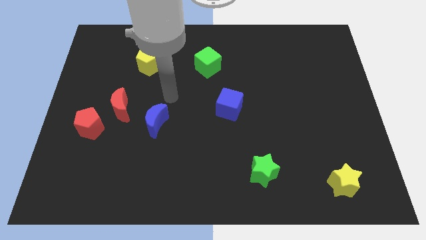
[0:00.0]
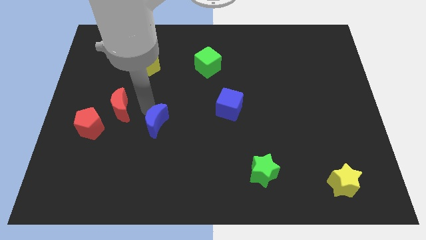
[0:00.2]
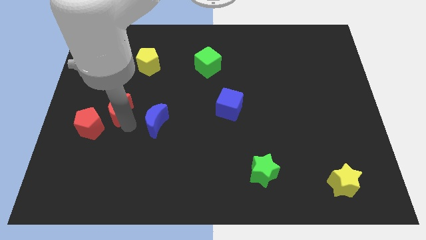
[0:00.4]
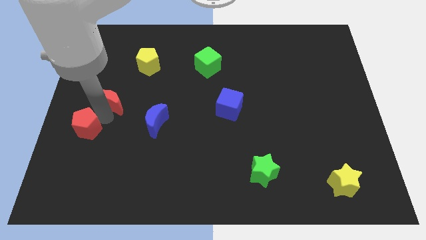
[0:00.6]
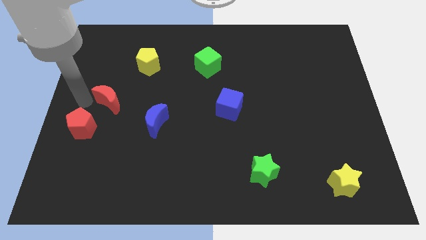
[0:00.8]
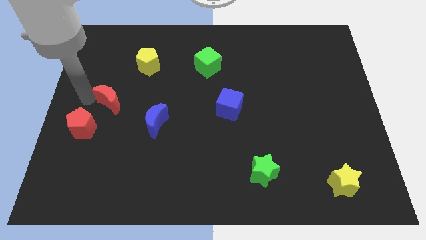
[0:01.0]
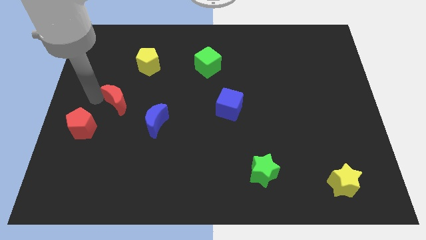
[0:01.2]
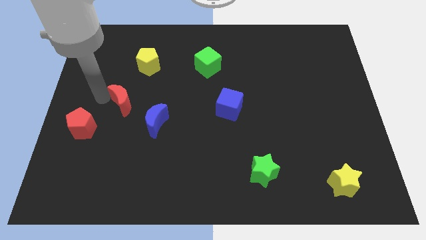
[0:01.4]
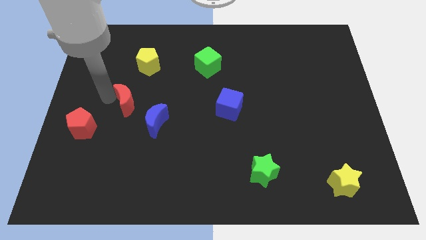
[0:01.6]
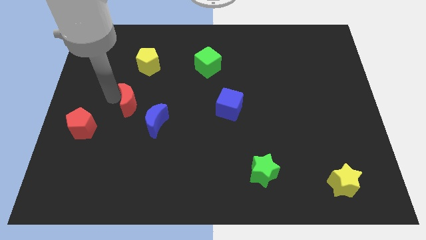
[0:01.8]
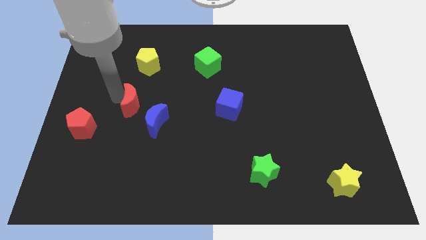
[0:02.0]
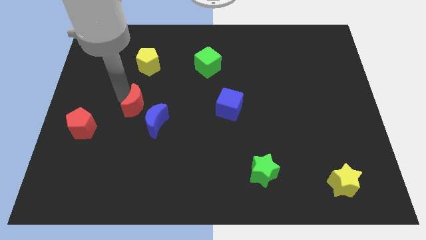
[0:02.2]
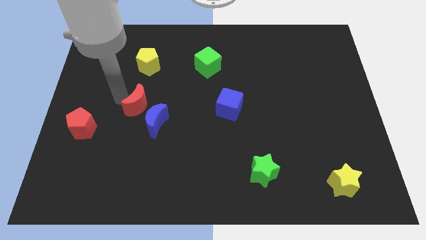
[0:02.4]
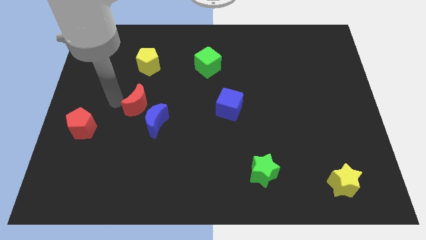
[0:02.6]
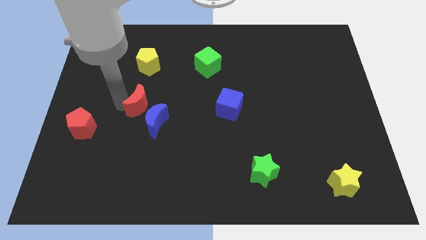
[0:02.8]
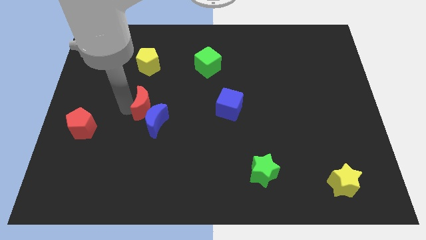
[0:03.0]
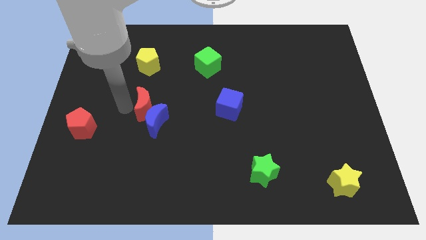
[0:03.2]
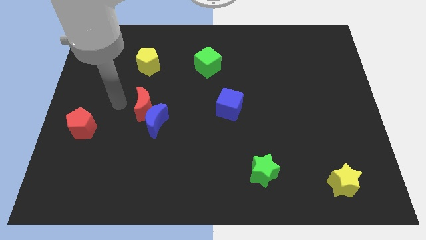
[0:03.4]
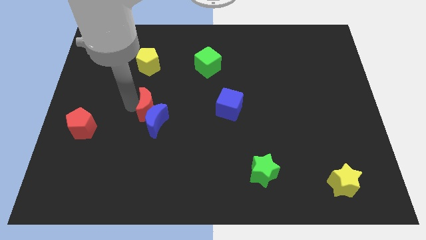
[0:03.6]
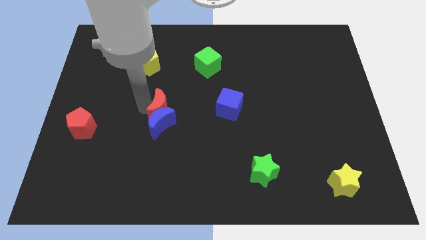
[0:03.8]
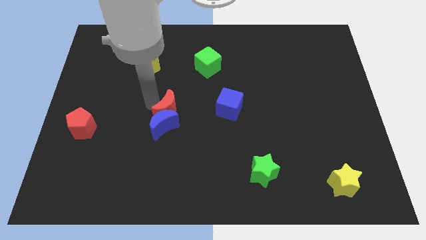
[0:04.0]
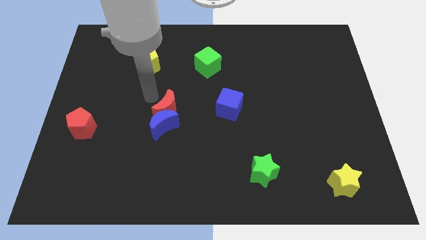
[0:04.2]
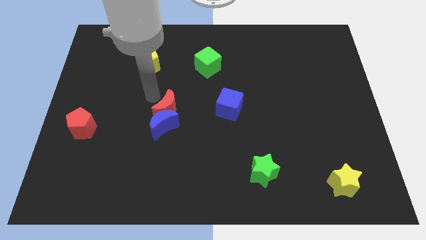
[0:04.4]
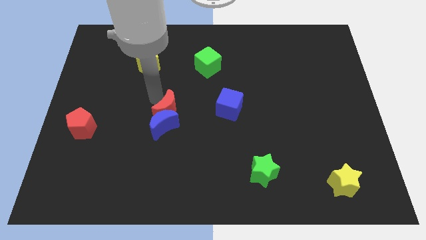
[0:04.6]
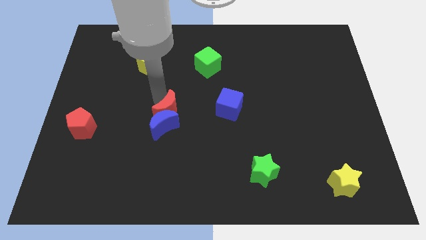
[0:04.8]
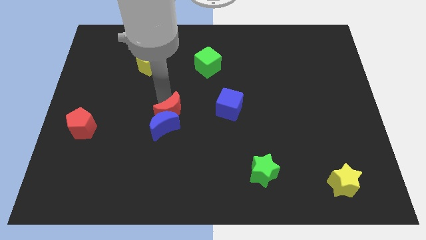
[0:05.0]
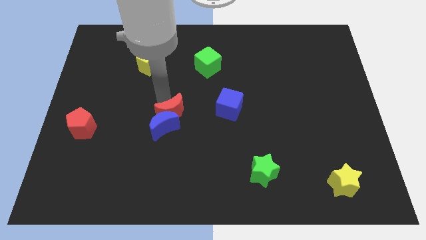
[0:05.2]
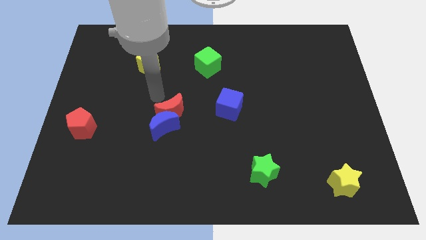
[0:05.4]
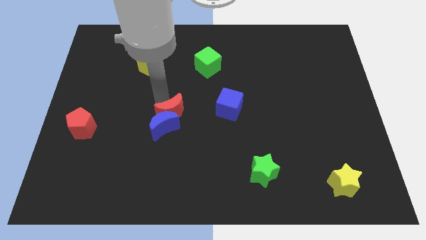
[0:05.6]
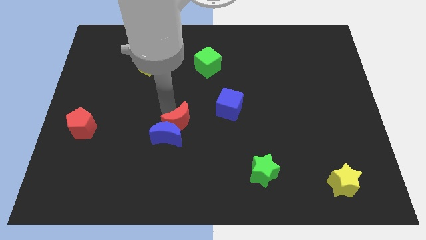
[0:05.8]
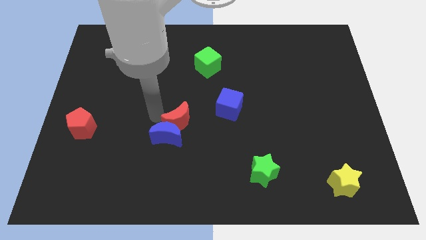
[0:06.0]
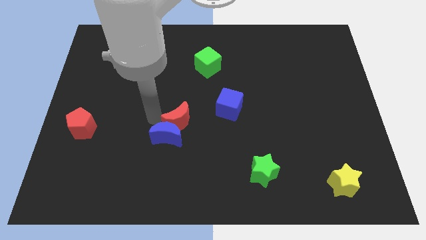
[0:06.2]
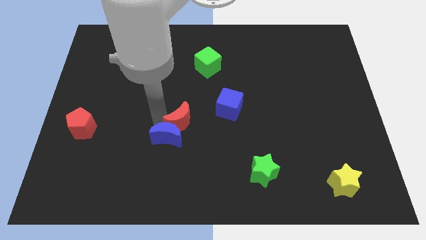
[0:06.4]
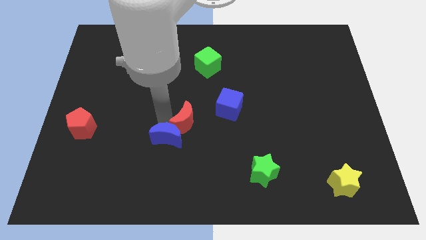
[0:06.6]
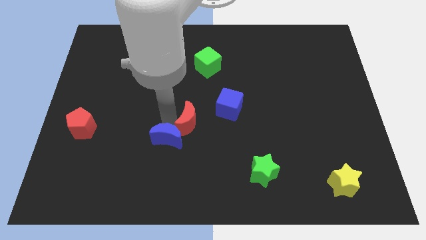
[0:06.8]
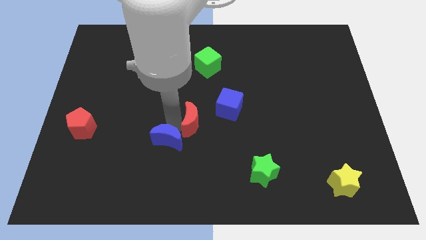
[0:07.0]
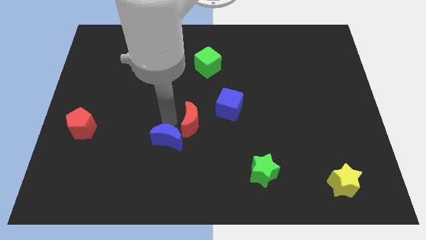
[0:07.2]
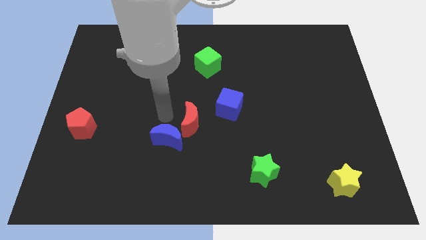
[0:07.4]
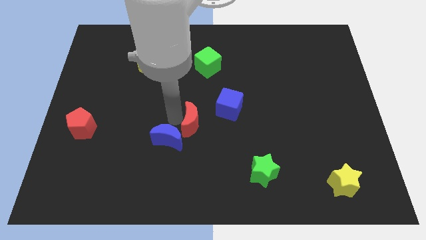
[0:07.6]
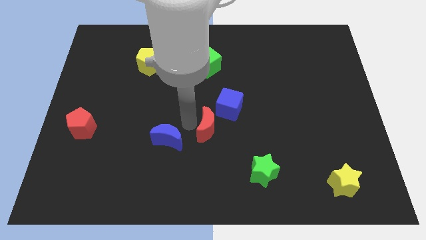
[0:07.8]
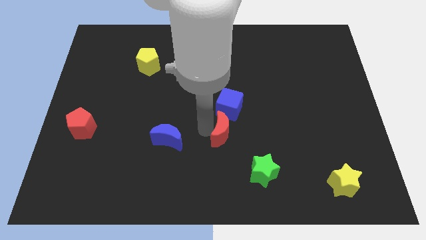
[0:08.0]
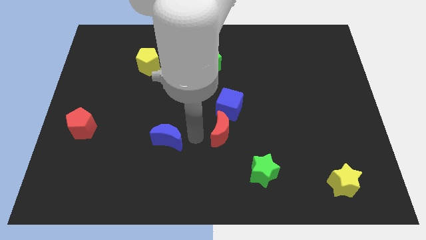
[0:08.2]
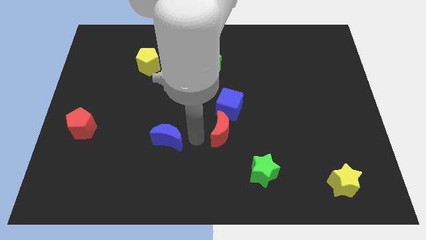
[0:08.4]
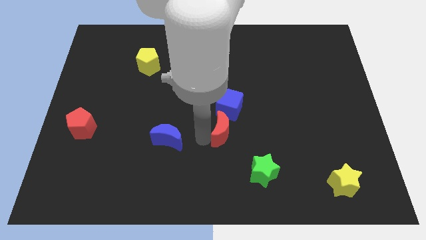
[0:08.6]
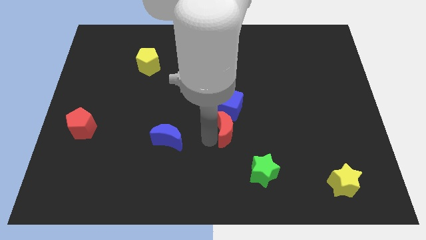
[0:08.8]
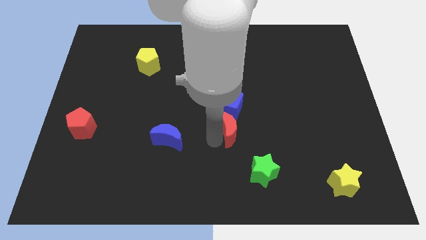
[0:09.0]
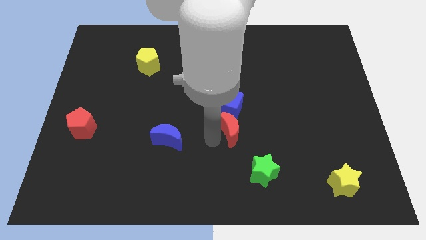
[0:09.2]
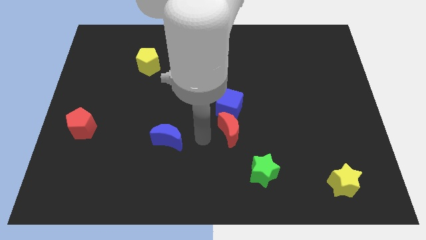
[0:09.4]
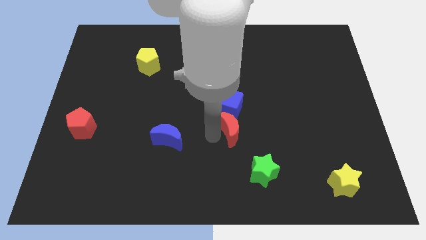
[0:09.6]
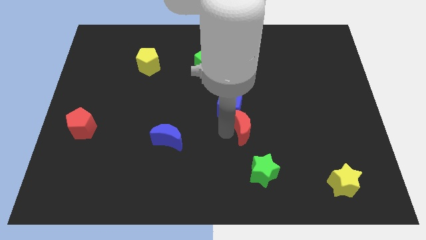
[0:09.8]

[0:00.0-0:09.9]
push the red moon to the top side of the green star

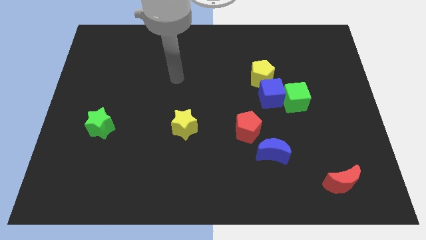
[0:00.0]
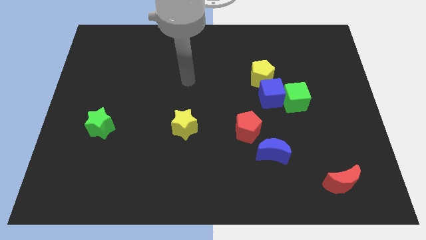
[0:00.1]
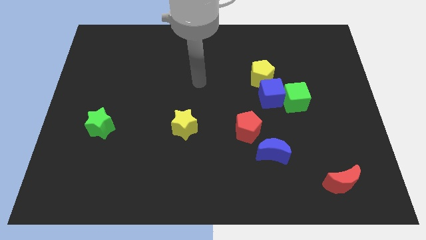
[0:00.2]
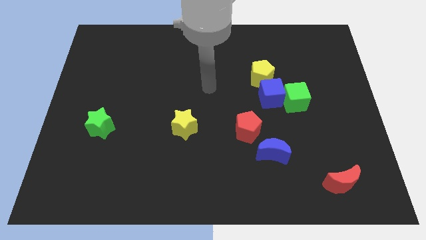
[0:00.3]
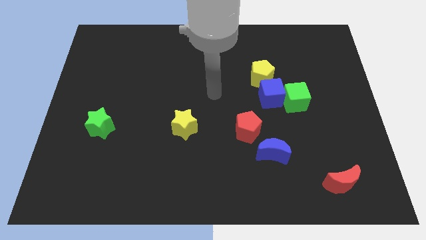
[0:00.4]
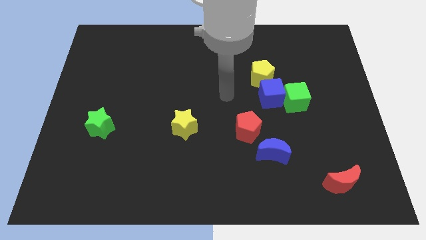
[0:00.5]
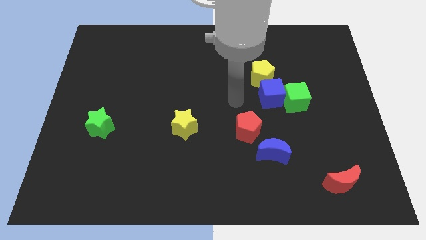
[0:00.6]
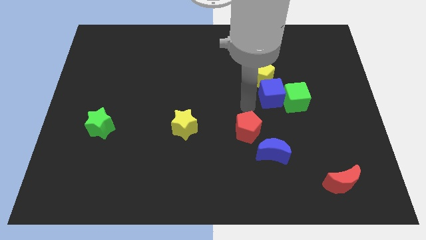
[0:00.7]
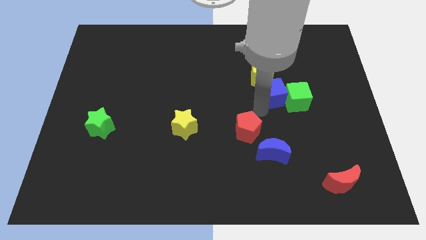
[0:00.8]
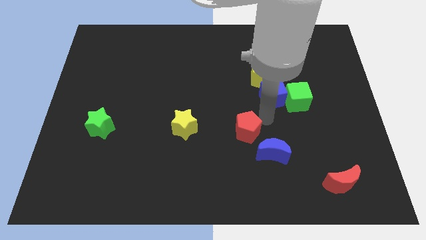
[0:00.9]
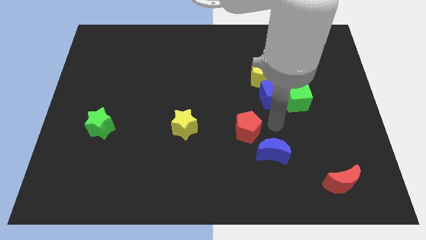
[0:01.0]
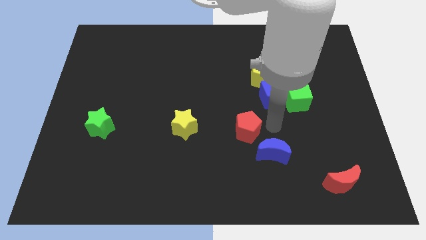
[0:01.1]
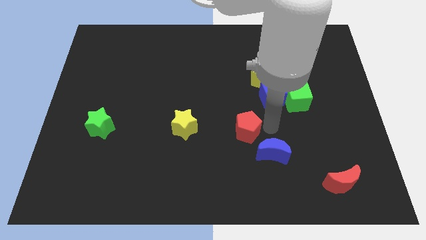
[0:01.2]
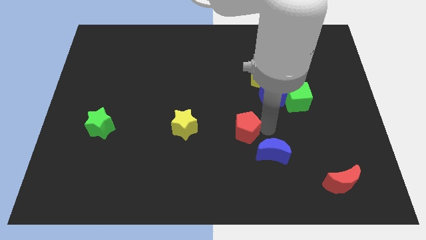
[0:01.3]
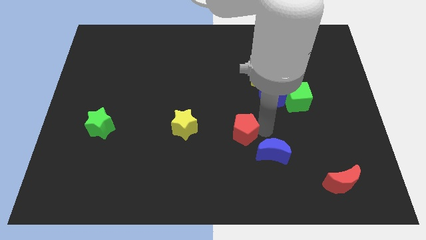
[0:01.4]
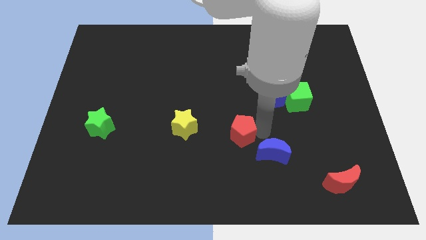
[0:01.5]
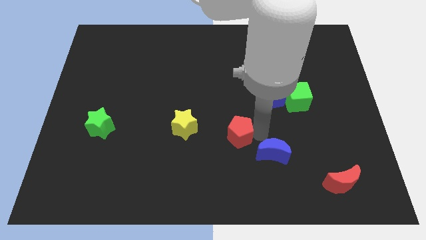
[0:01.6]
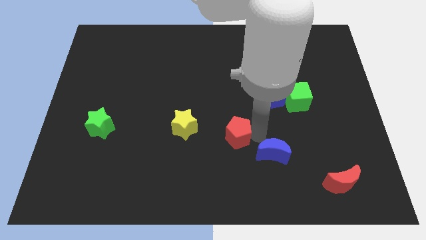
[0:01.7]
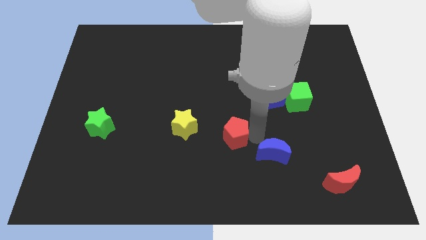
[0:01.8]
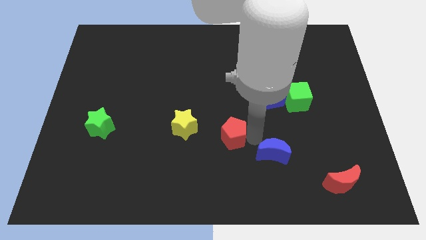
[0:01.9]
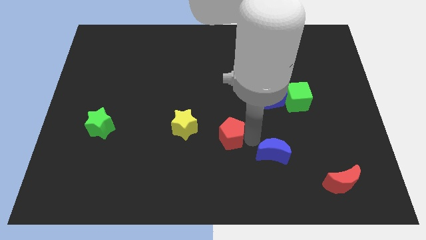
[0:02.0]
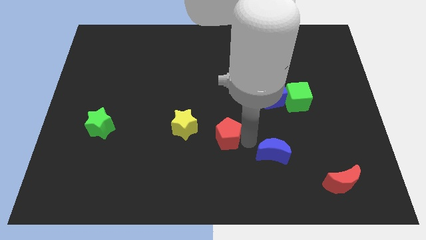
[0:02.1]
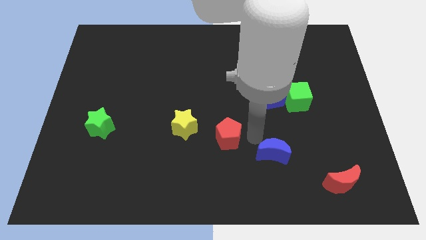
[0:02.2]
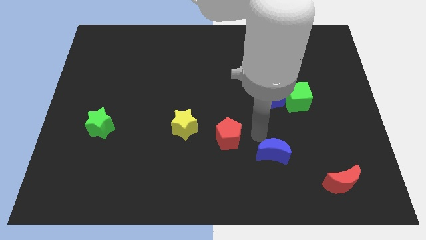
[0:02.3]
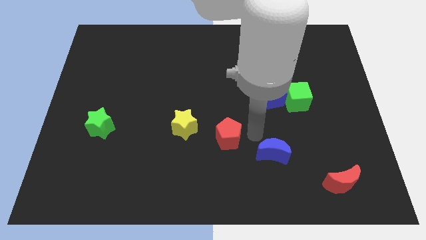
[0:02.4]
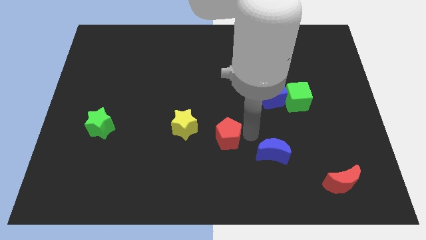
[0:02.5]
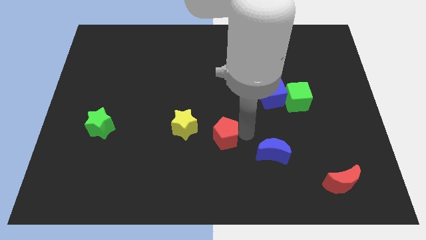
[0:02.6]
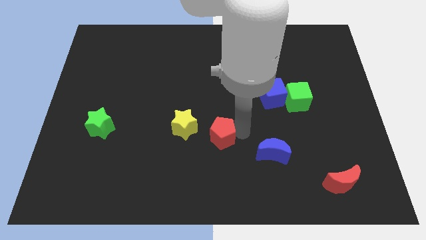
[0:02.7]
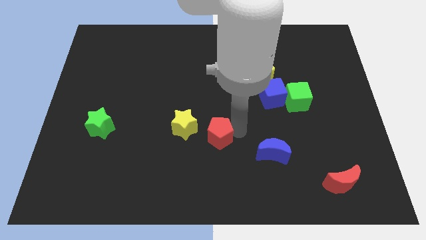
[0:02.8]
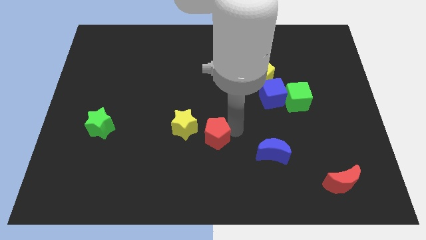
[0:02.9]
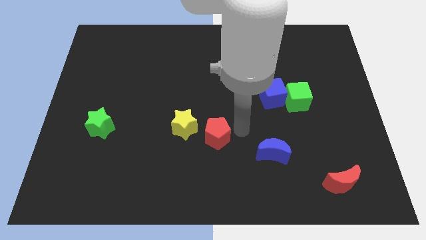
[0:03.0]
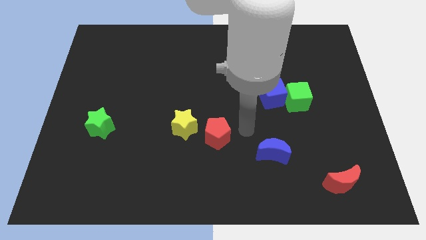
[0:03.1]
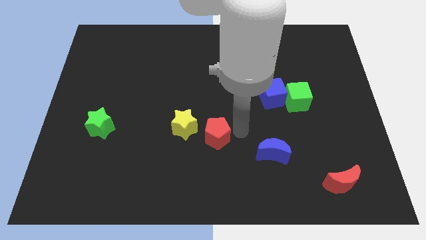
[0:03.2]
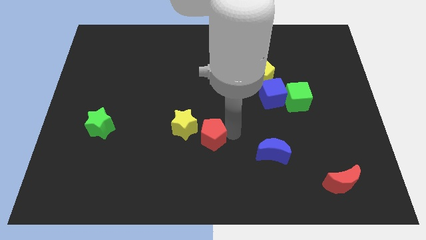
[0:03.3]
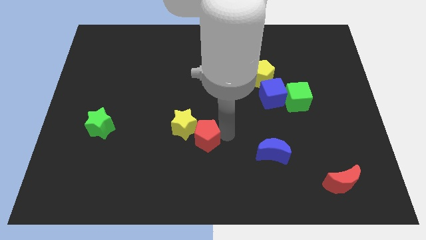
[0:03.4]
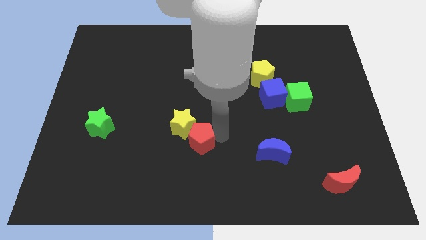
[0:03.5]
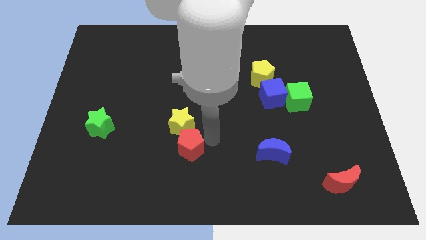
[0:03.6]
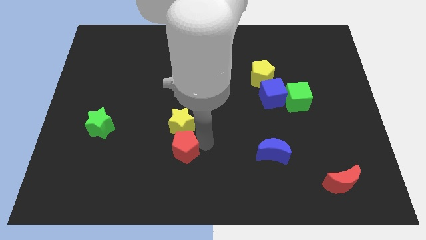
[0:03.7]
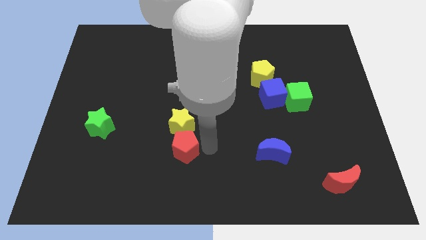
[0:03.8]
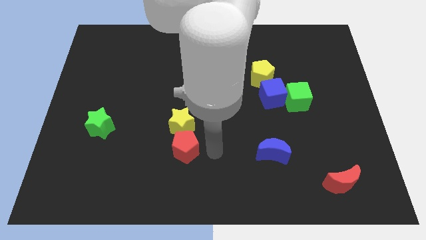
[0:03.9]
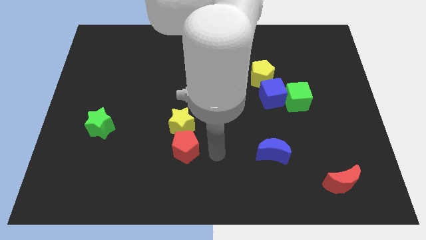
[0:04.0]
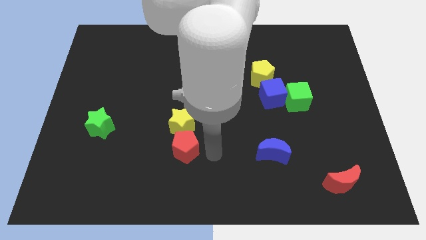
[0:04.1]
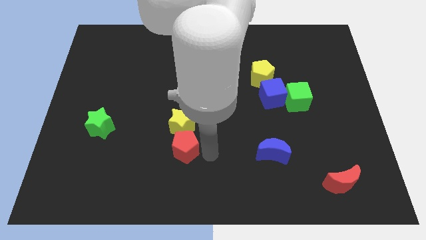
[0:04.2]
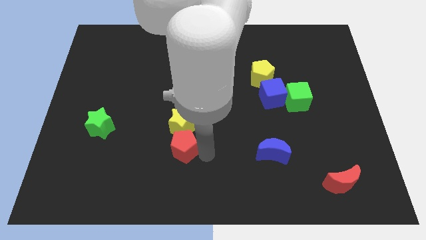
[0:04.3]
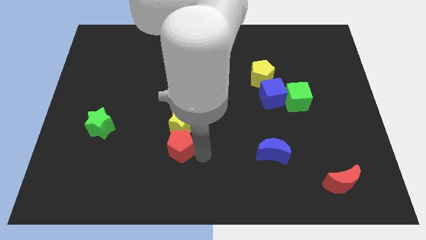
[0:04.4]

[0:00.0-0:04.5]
push the red pentagon to the bottom left of the yellow star
